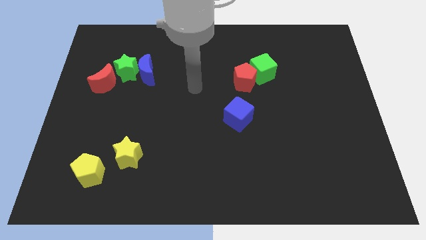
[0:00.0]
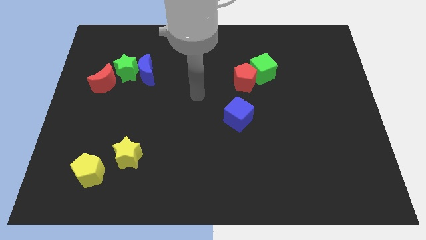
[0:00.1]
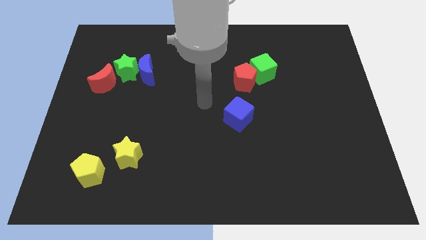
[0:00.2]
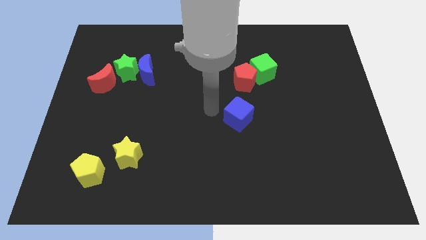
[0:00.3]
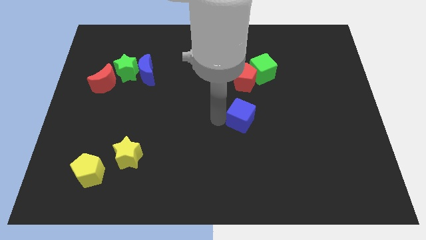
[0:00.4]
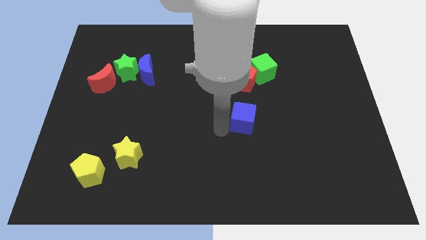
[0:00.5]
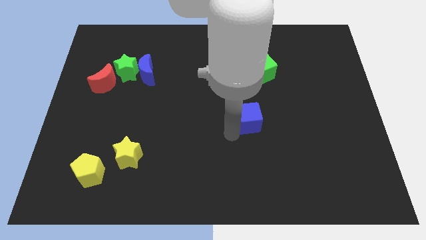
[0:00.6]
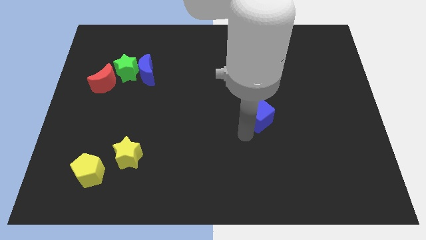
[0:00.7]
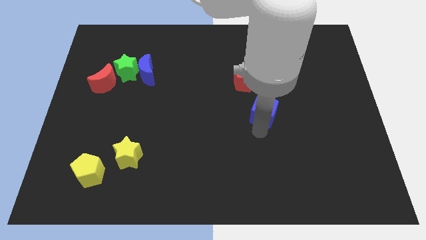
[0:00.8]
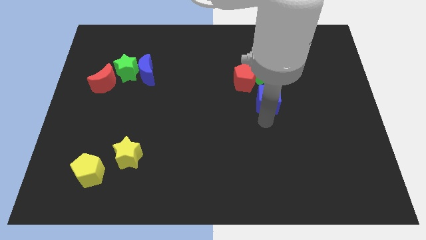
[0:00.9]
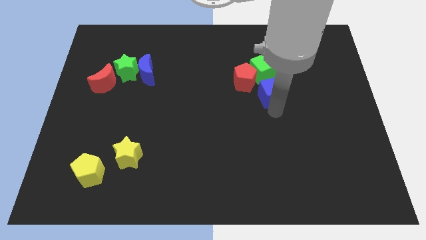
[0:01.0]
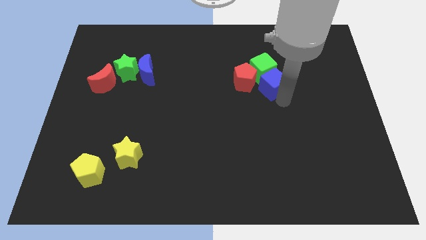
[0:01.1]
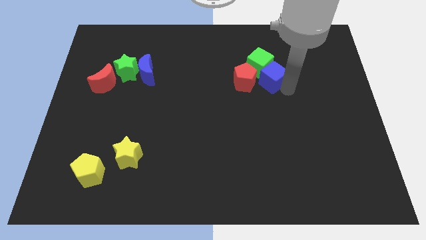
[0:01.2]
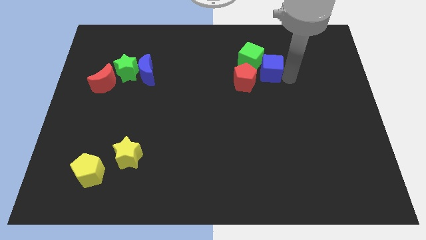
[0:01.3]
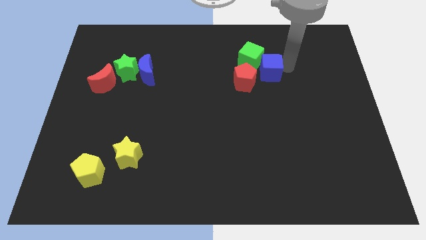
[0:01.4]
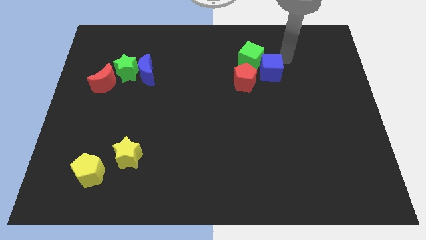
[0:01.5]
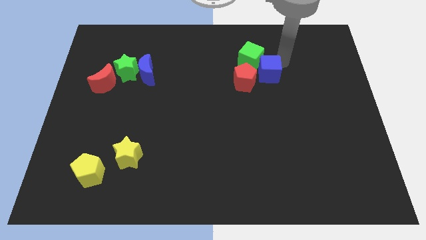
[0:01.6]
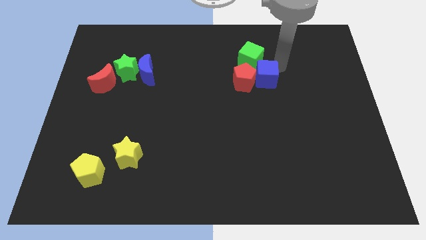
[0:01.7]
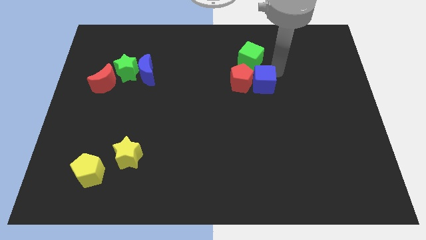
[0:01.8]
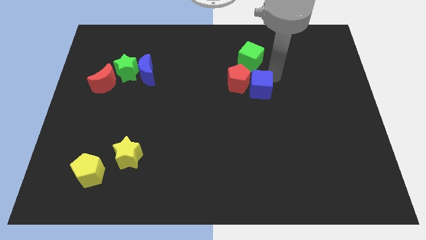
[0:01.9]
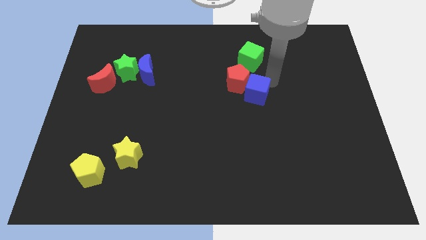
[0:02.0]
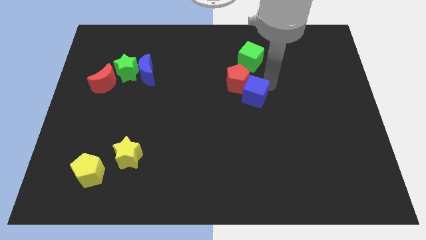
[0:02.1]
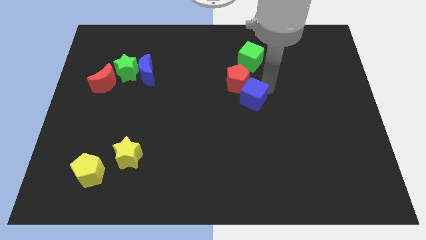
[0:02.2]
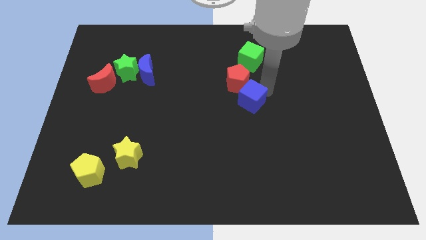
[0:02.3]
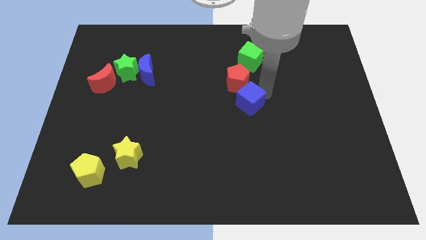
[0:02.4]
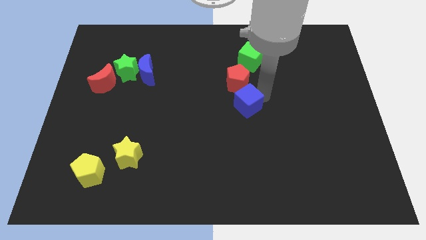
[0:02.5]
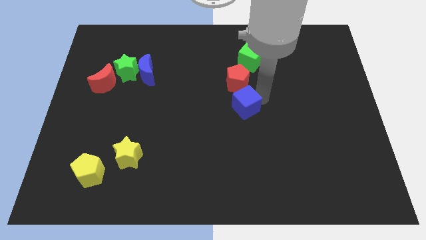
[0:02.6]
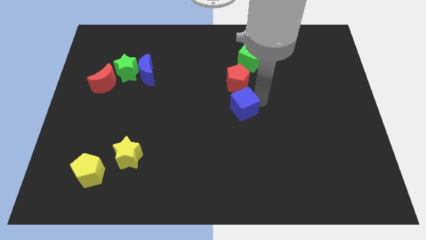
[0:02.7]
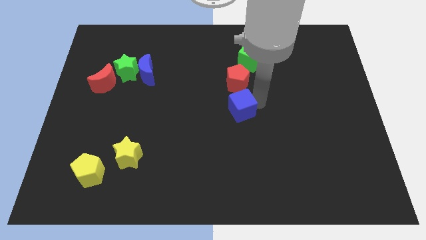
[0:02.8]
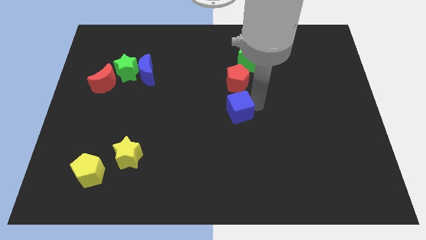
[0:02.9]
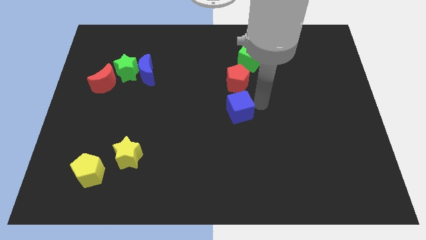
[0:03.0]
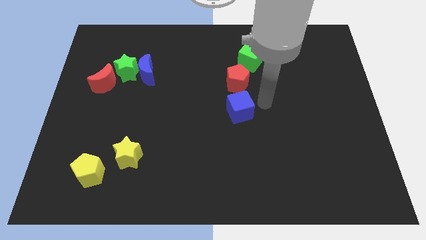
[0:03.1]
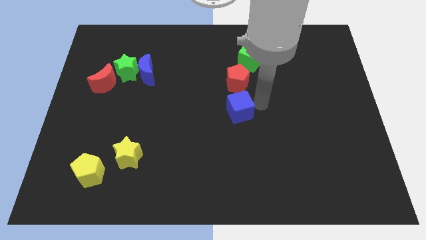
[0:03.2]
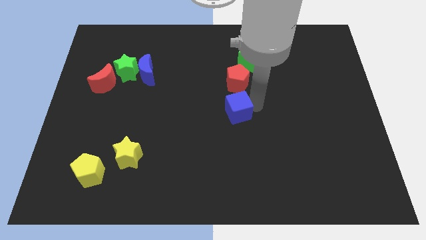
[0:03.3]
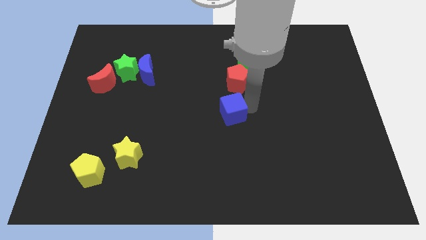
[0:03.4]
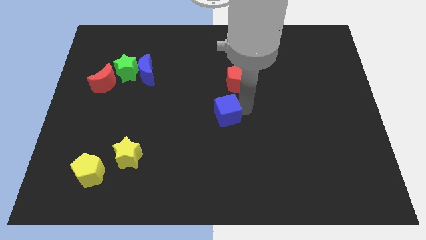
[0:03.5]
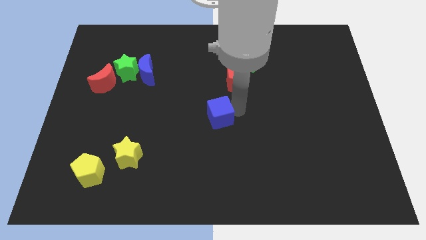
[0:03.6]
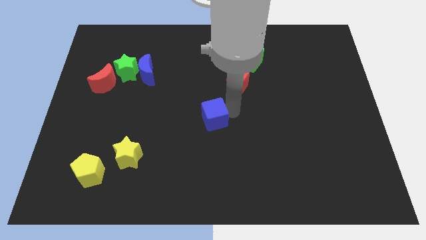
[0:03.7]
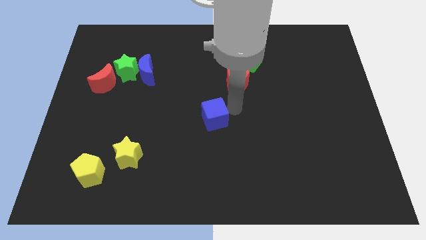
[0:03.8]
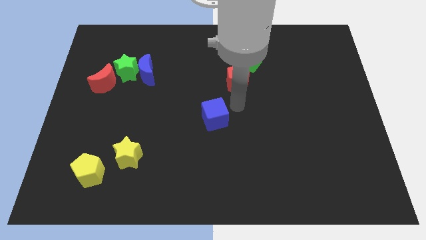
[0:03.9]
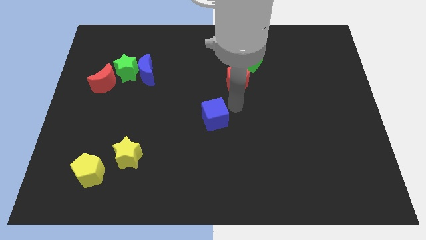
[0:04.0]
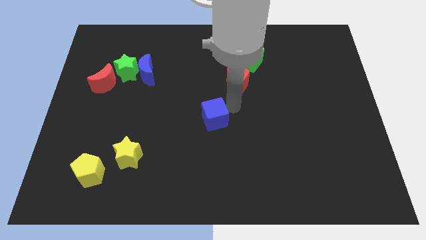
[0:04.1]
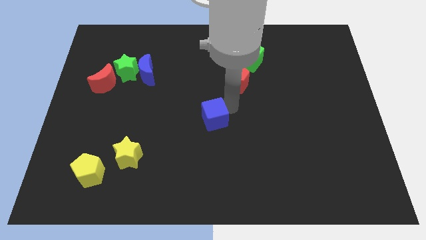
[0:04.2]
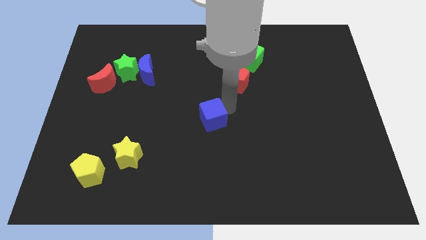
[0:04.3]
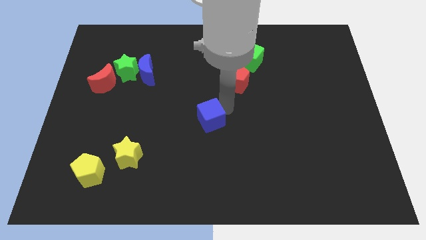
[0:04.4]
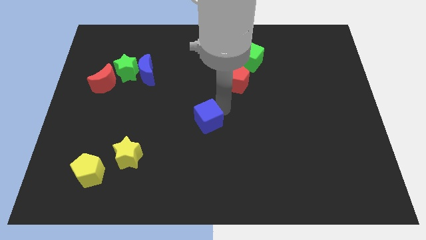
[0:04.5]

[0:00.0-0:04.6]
slightly slide the blue cube left

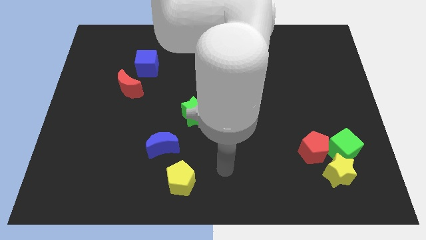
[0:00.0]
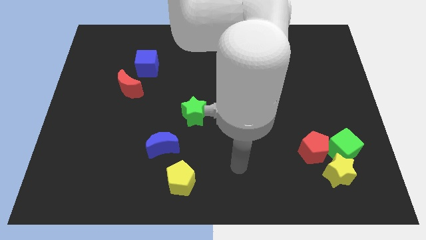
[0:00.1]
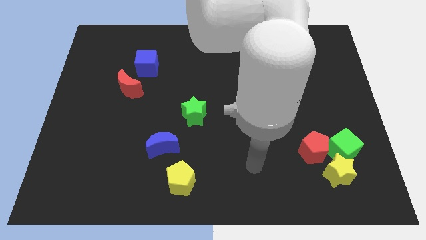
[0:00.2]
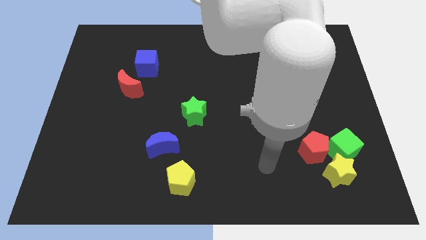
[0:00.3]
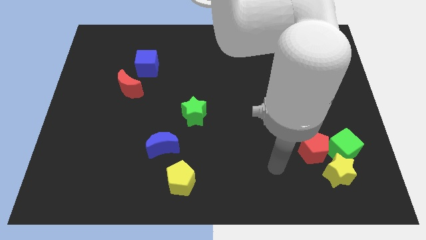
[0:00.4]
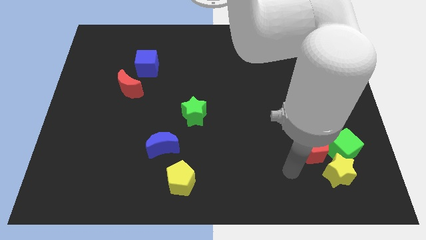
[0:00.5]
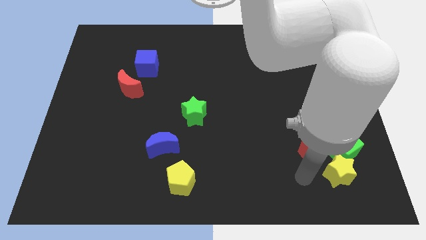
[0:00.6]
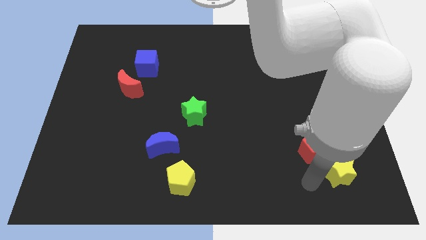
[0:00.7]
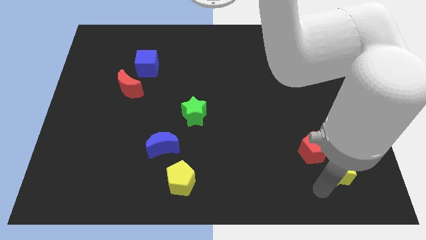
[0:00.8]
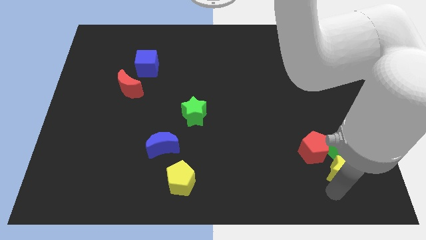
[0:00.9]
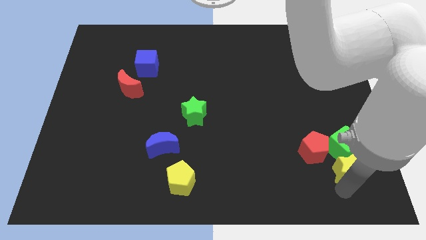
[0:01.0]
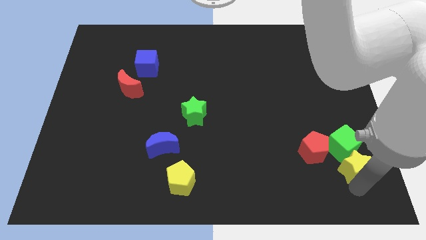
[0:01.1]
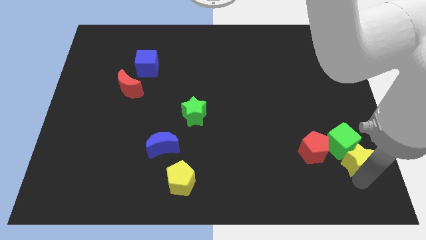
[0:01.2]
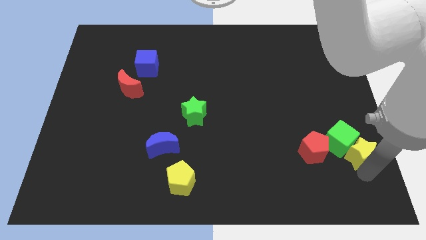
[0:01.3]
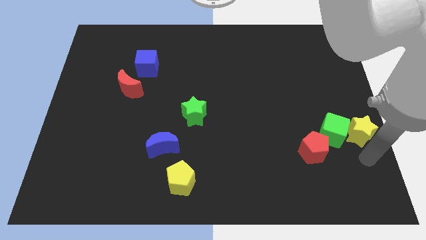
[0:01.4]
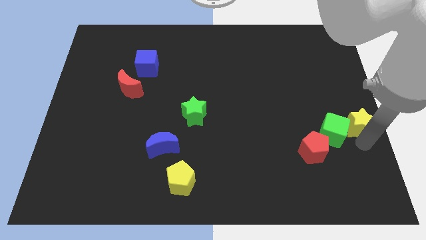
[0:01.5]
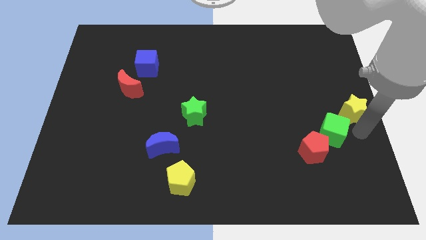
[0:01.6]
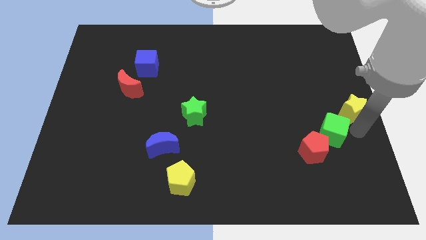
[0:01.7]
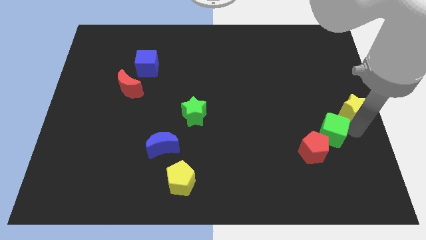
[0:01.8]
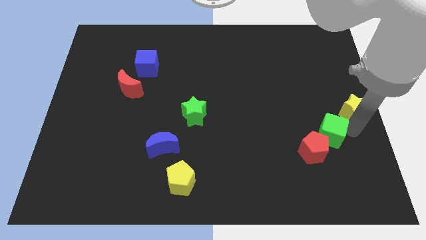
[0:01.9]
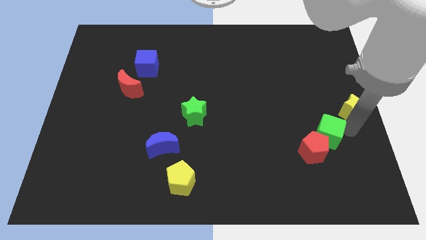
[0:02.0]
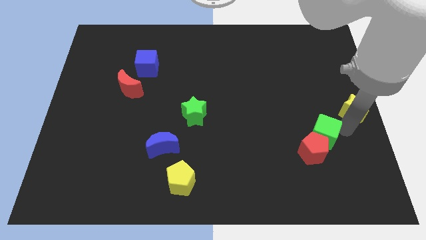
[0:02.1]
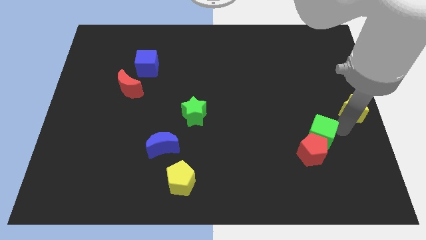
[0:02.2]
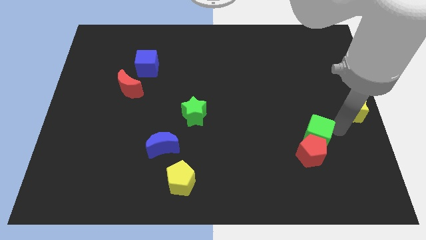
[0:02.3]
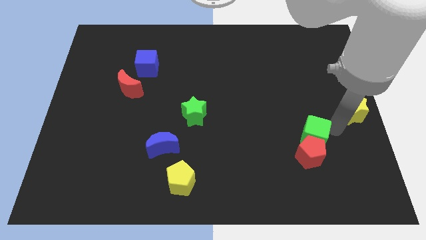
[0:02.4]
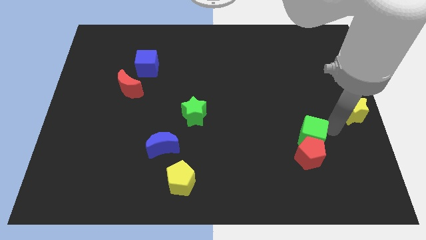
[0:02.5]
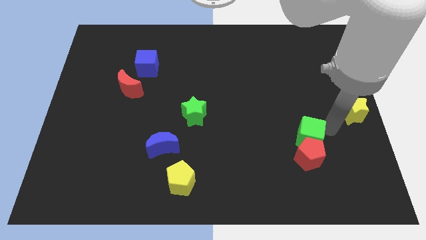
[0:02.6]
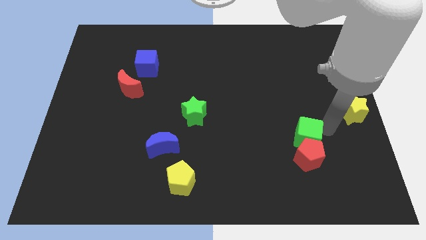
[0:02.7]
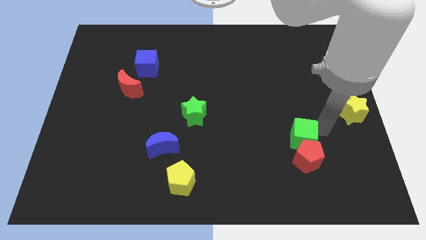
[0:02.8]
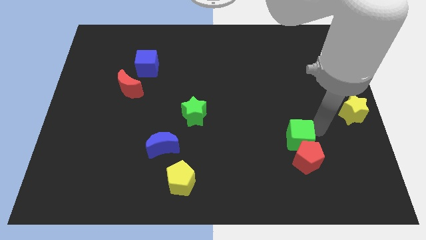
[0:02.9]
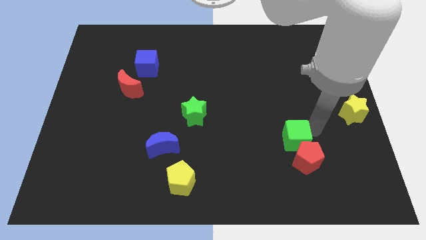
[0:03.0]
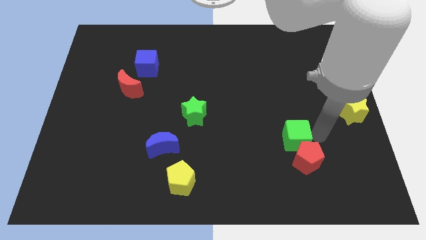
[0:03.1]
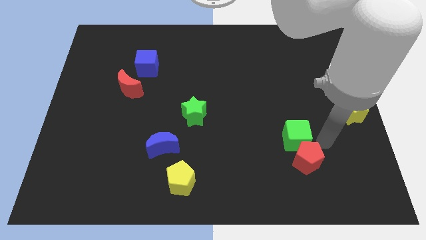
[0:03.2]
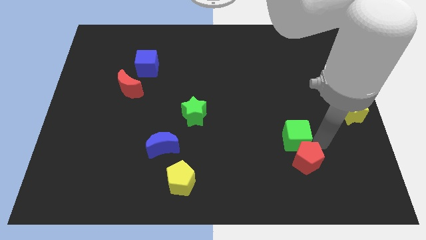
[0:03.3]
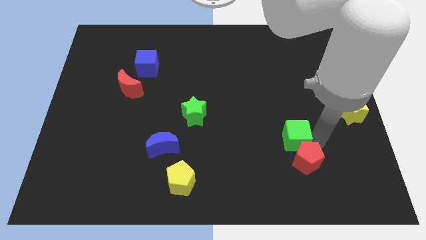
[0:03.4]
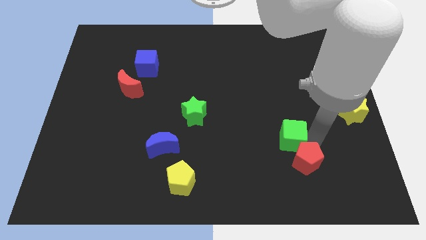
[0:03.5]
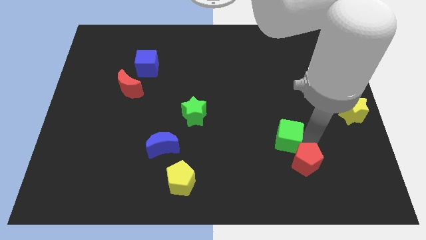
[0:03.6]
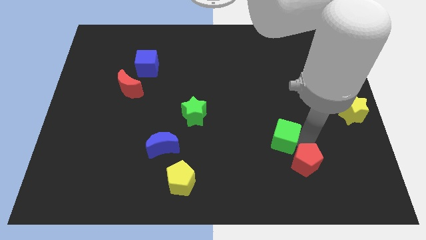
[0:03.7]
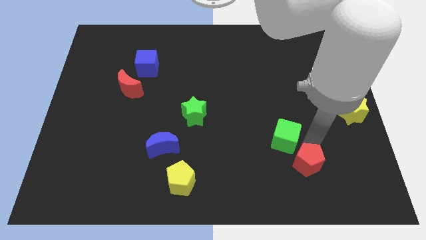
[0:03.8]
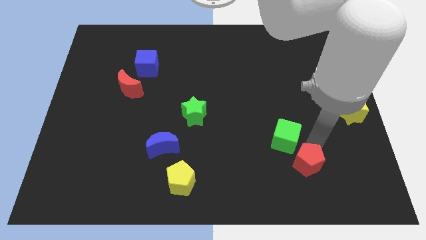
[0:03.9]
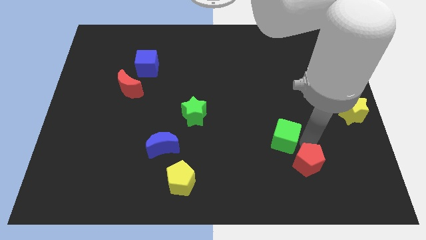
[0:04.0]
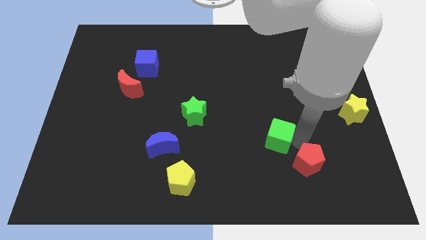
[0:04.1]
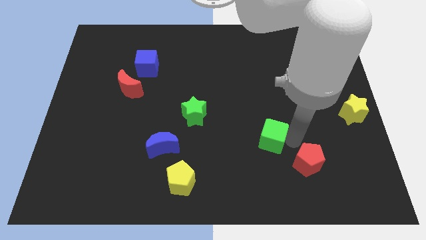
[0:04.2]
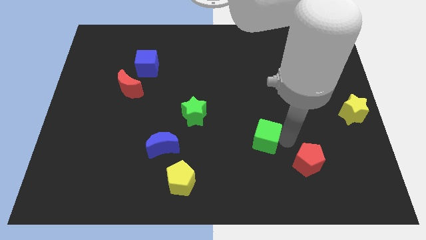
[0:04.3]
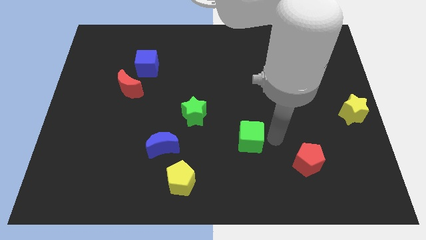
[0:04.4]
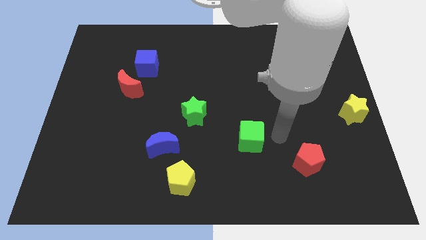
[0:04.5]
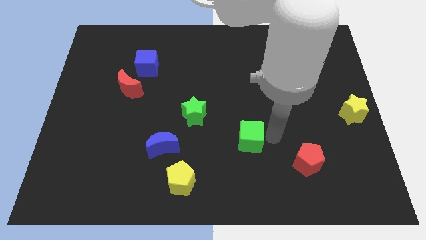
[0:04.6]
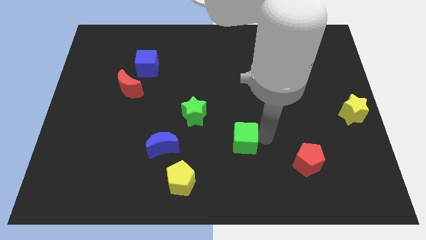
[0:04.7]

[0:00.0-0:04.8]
push the green cube left
